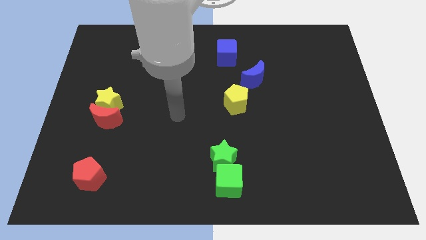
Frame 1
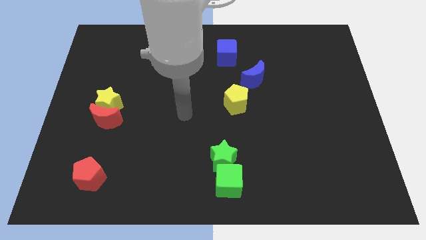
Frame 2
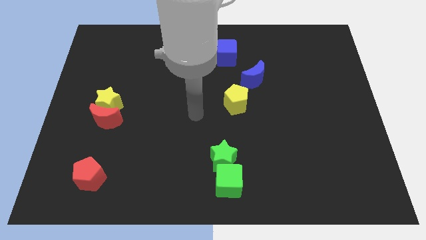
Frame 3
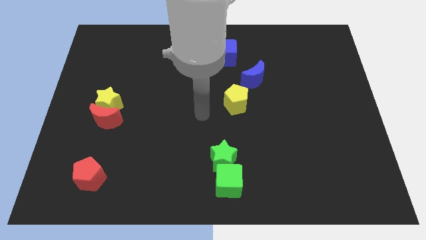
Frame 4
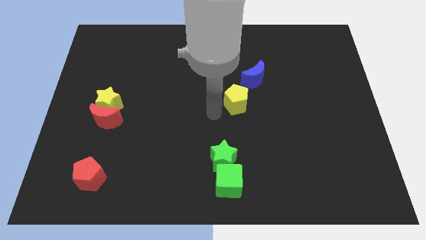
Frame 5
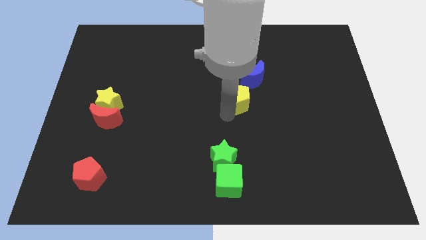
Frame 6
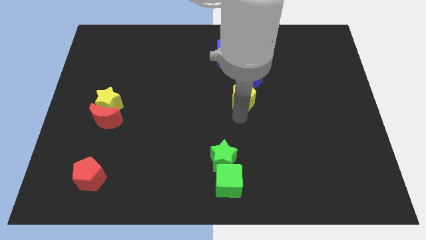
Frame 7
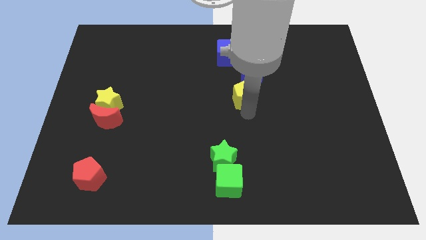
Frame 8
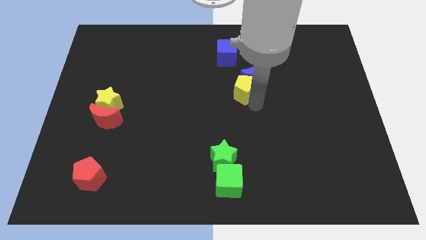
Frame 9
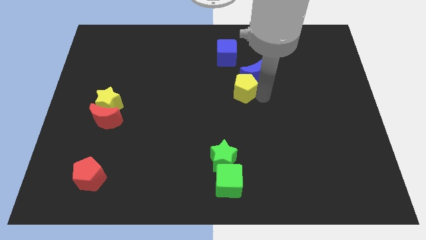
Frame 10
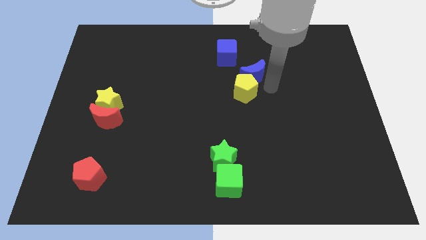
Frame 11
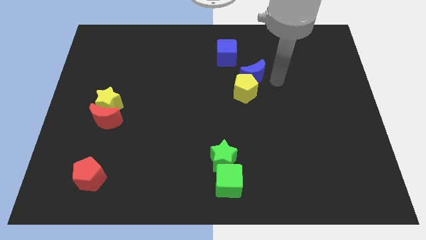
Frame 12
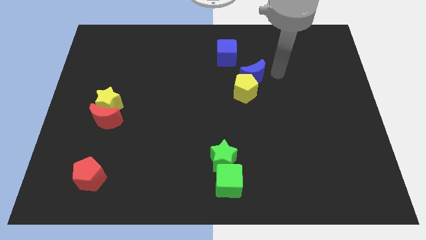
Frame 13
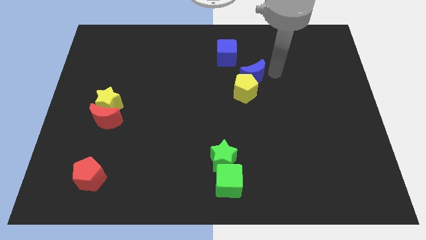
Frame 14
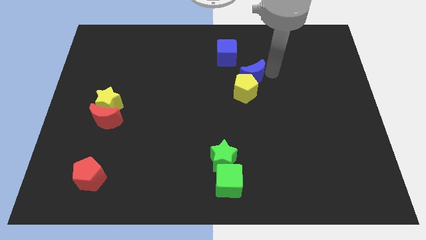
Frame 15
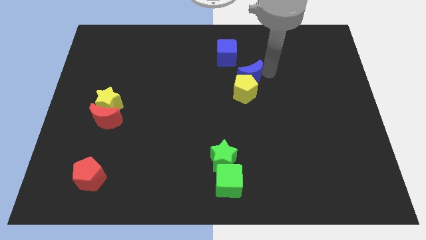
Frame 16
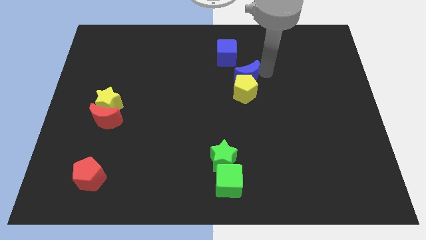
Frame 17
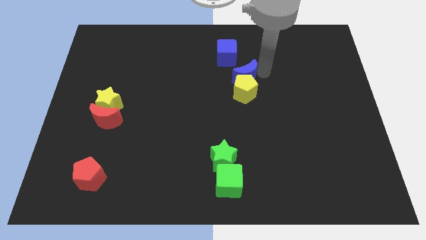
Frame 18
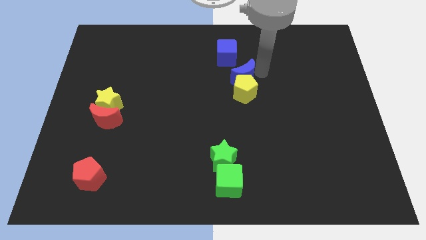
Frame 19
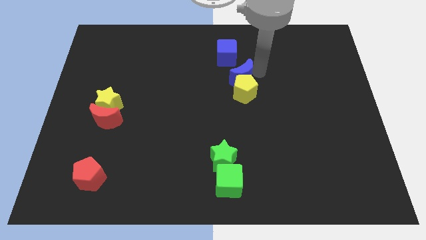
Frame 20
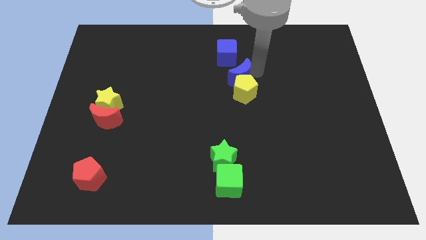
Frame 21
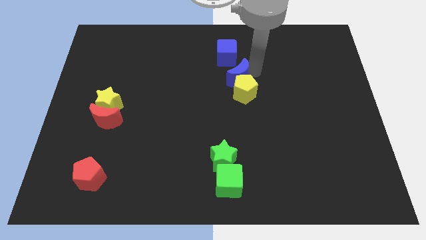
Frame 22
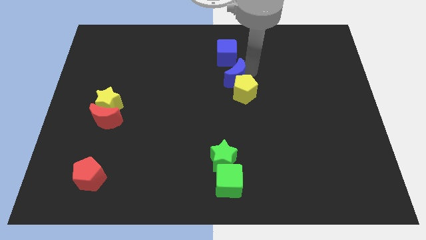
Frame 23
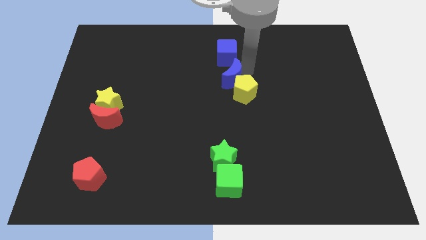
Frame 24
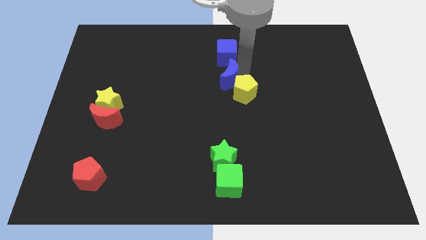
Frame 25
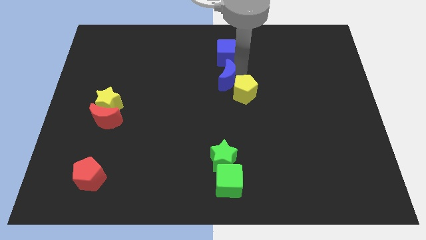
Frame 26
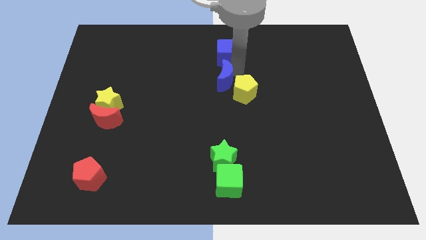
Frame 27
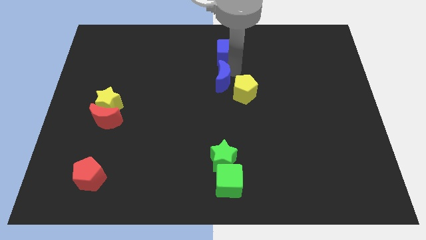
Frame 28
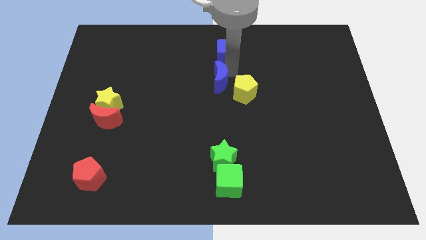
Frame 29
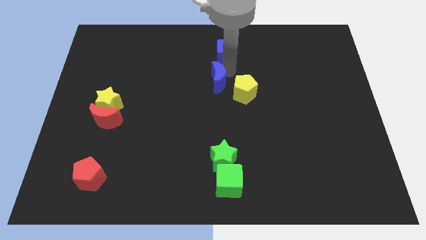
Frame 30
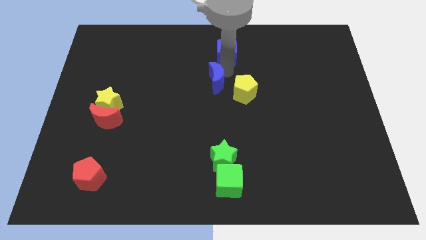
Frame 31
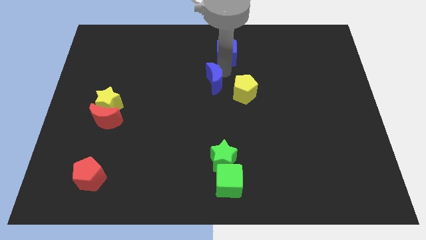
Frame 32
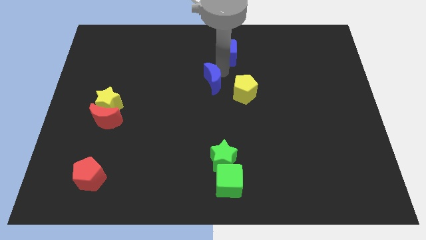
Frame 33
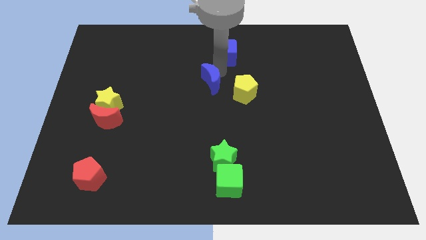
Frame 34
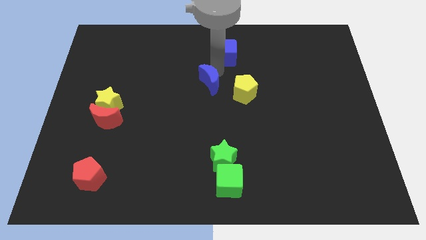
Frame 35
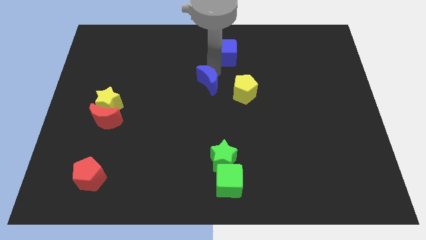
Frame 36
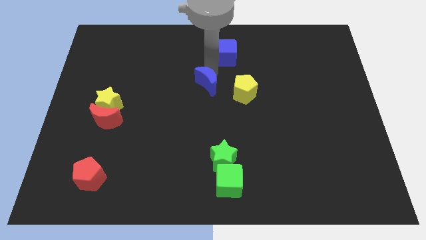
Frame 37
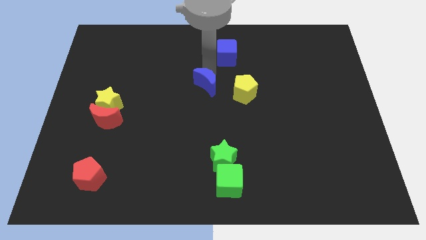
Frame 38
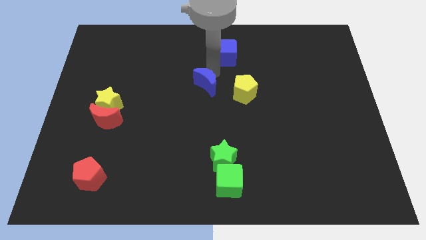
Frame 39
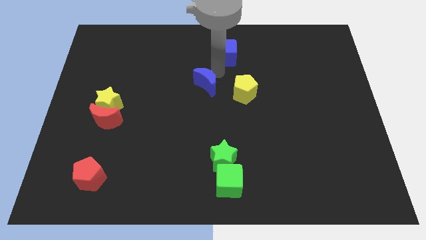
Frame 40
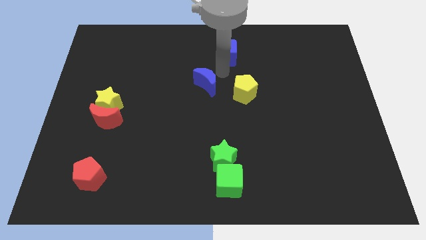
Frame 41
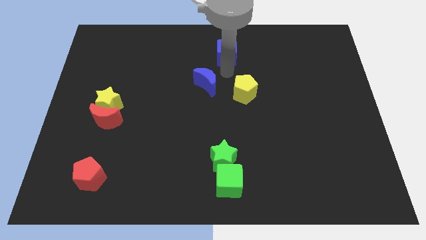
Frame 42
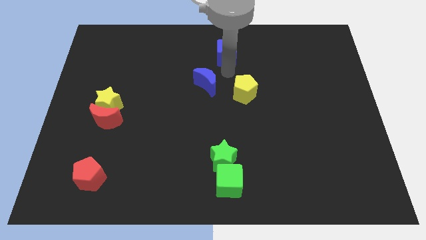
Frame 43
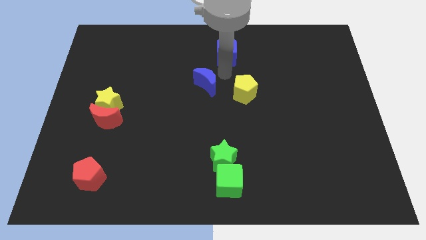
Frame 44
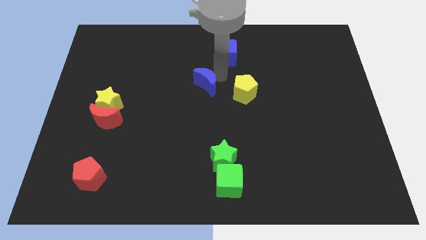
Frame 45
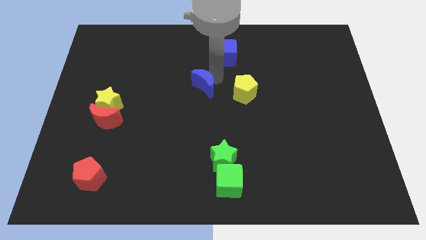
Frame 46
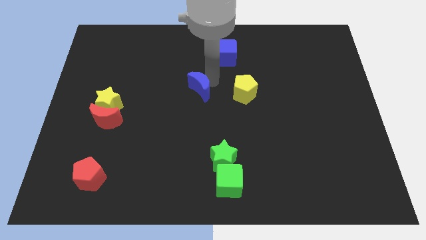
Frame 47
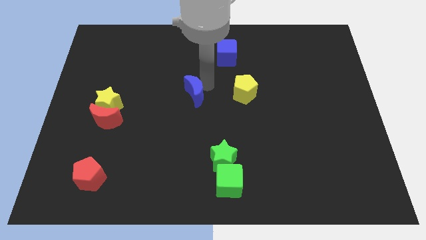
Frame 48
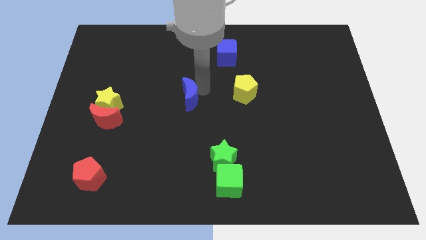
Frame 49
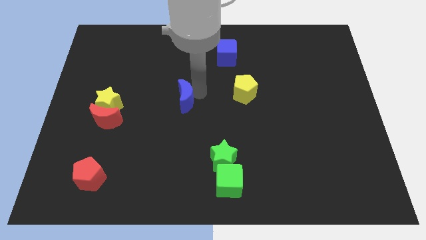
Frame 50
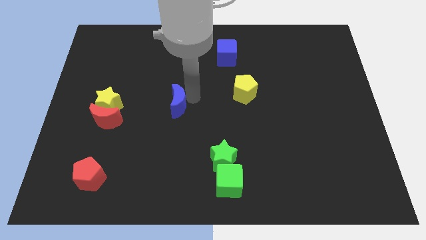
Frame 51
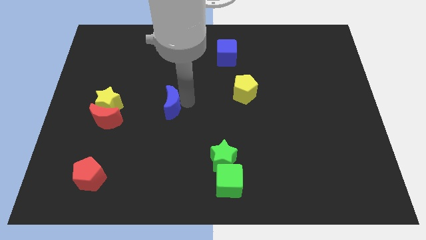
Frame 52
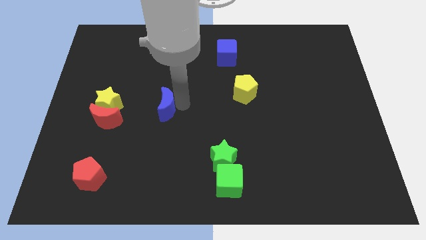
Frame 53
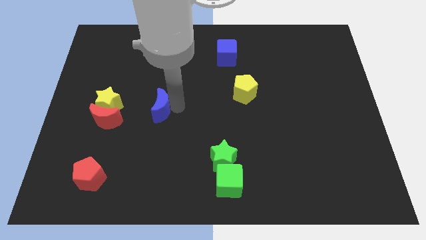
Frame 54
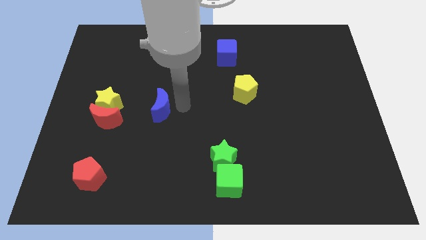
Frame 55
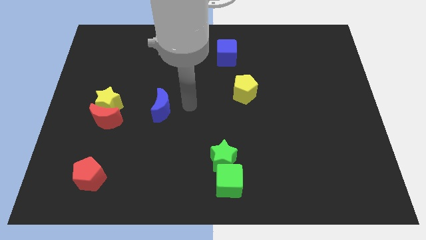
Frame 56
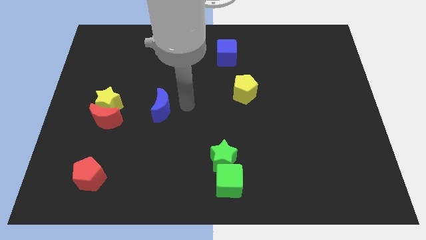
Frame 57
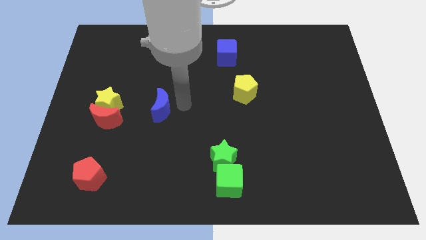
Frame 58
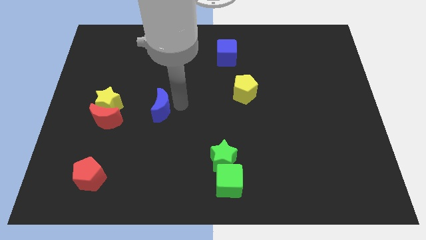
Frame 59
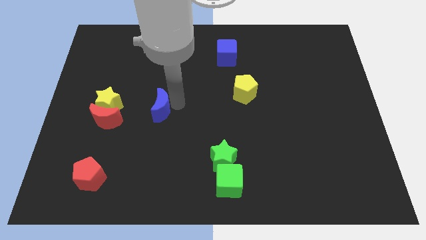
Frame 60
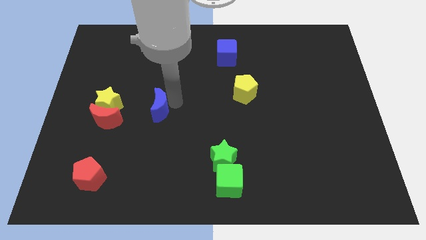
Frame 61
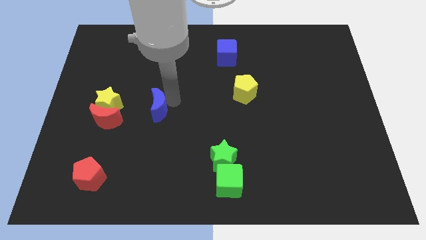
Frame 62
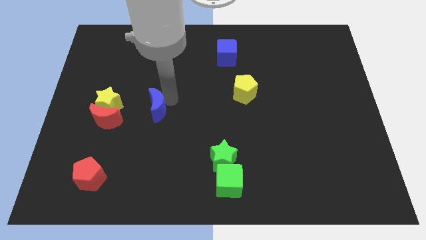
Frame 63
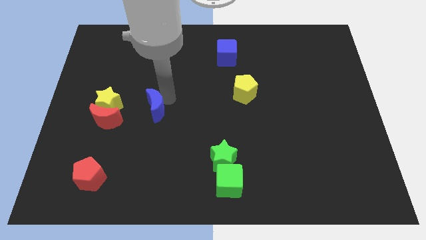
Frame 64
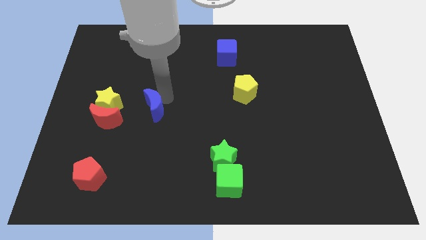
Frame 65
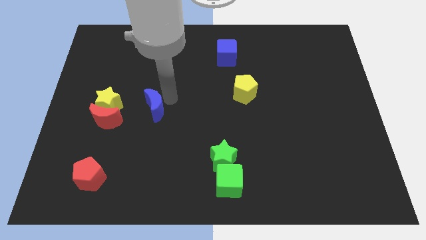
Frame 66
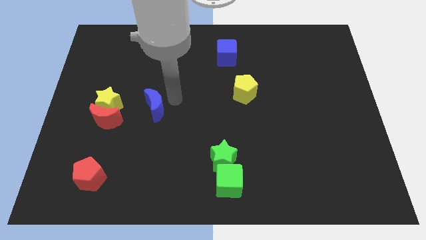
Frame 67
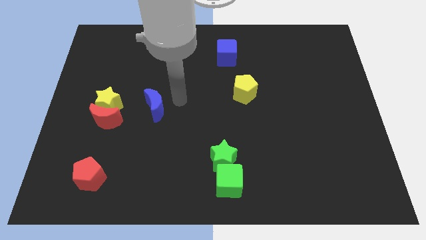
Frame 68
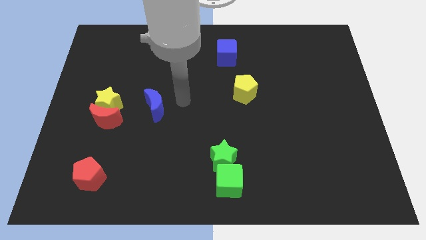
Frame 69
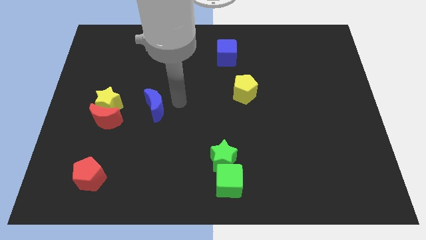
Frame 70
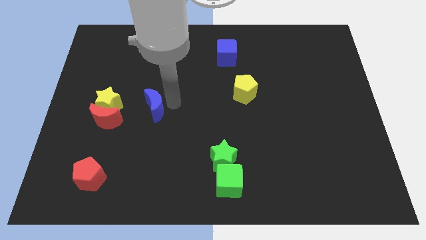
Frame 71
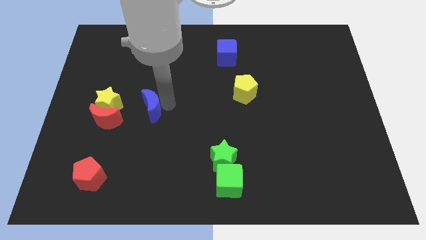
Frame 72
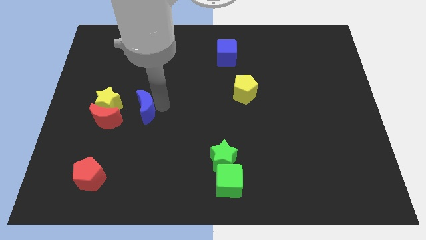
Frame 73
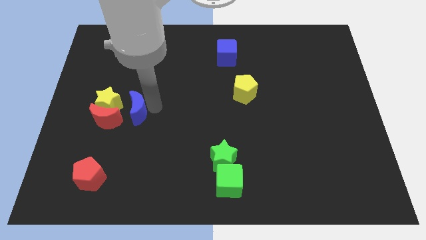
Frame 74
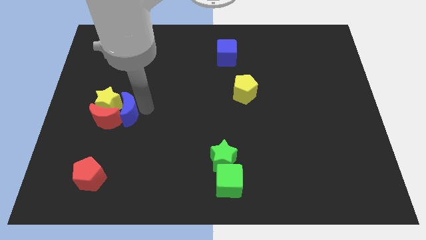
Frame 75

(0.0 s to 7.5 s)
put the blue moon towards the red moon
